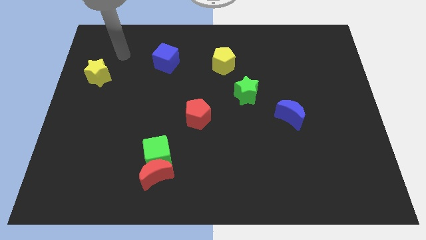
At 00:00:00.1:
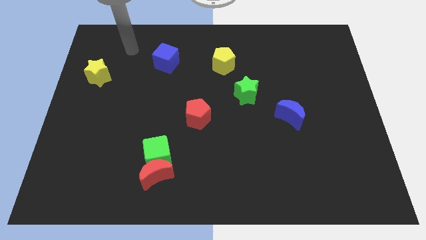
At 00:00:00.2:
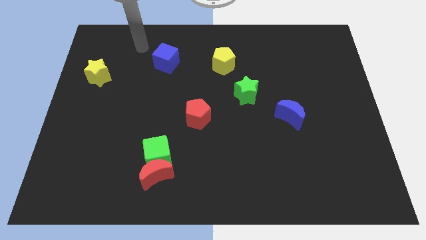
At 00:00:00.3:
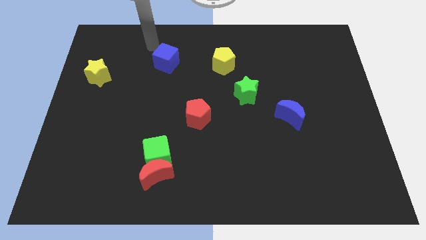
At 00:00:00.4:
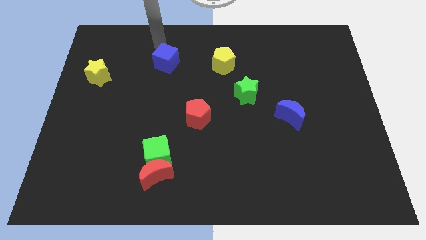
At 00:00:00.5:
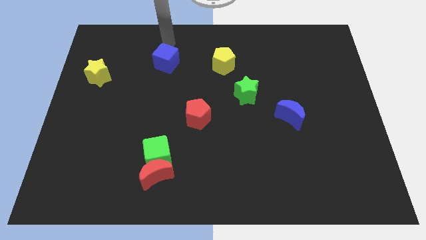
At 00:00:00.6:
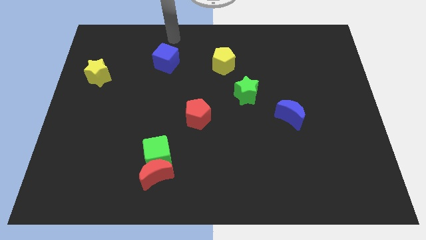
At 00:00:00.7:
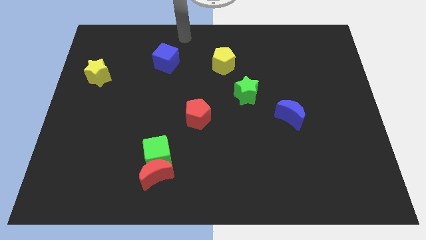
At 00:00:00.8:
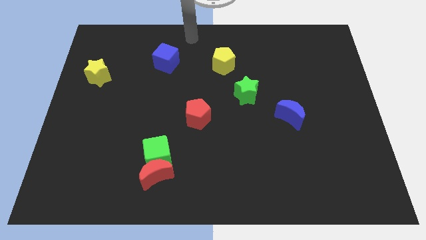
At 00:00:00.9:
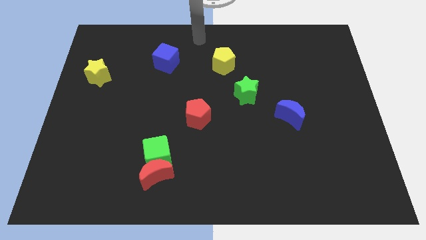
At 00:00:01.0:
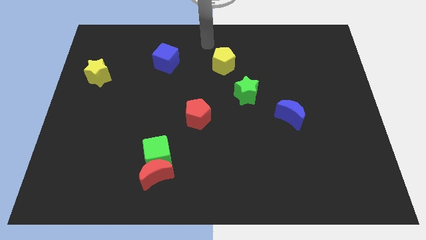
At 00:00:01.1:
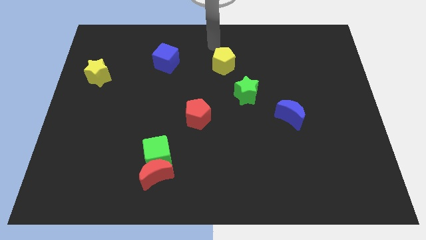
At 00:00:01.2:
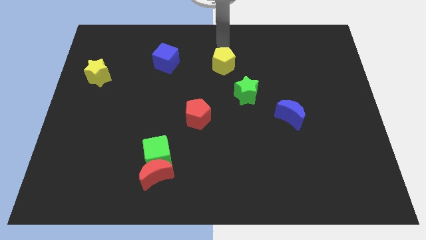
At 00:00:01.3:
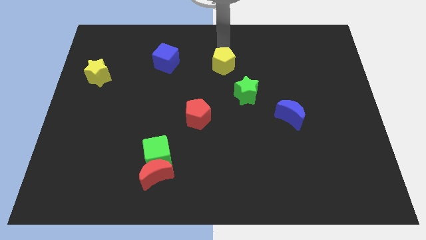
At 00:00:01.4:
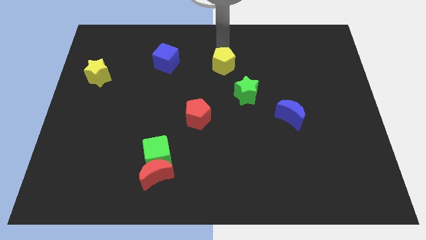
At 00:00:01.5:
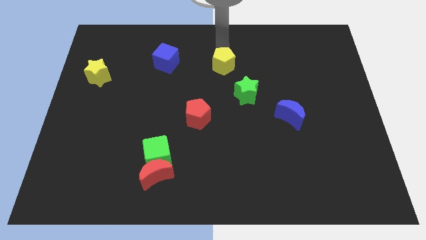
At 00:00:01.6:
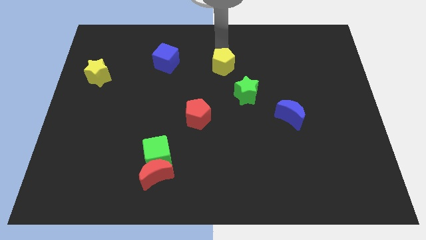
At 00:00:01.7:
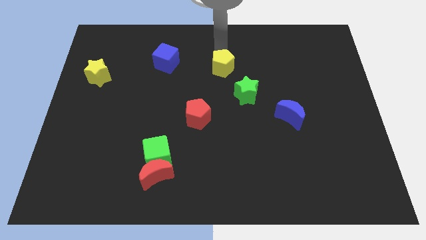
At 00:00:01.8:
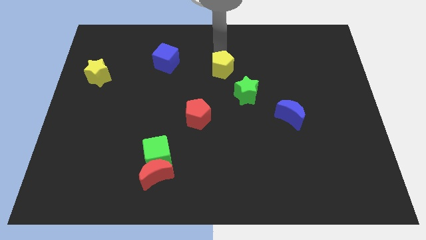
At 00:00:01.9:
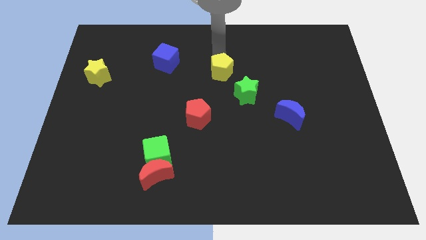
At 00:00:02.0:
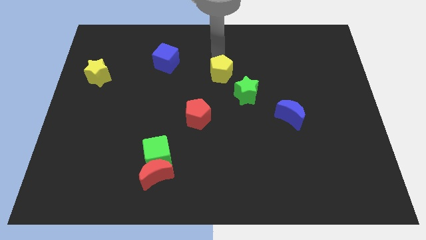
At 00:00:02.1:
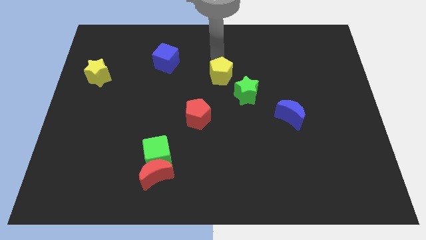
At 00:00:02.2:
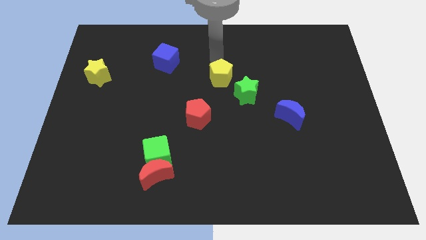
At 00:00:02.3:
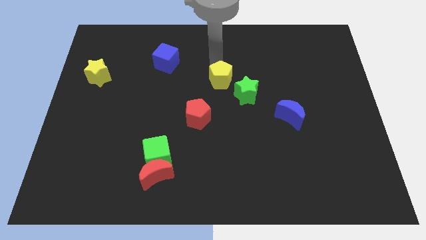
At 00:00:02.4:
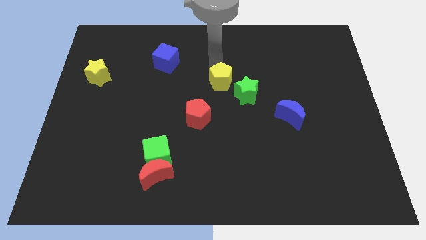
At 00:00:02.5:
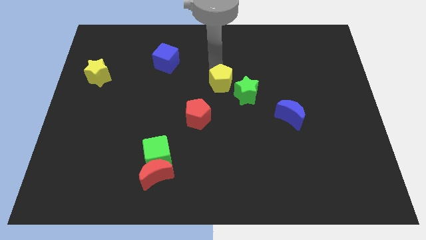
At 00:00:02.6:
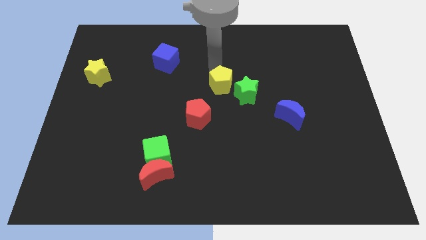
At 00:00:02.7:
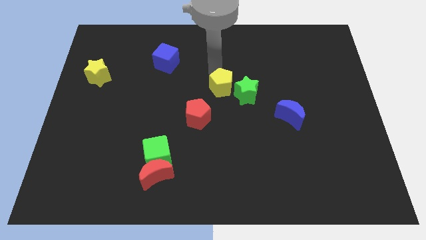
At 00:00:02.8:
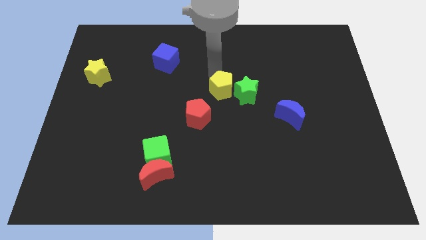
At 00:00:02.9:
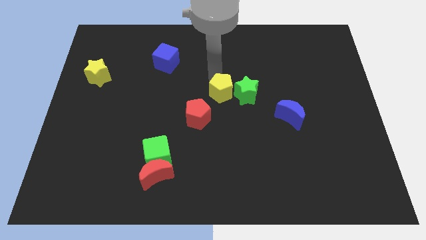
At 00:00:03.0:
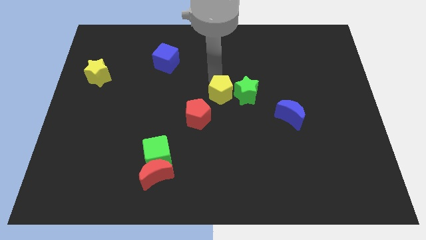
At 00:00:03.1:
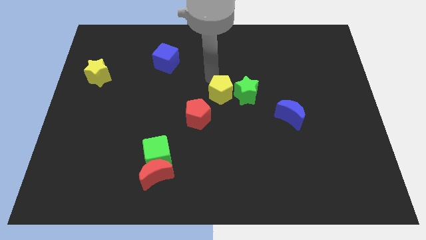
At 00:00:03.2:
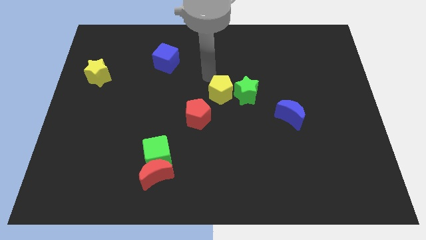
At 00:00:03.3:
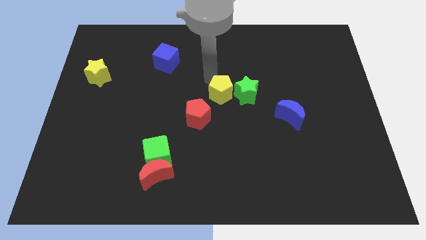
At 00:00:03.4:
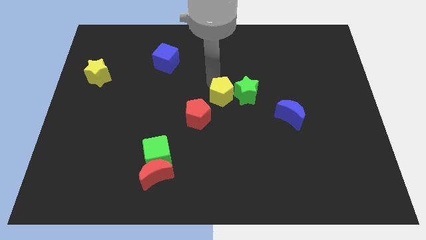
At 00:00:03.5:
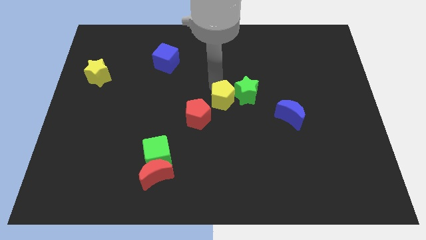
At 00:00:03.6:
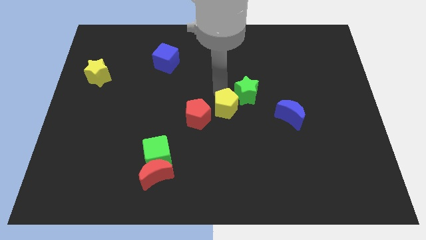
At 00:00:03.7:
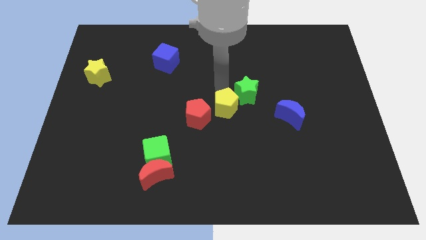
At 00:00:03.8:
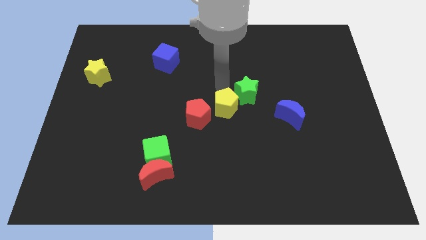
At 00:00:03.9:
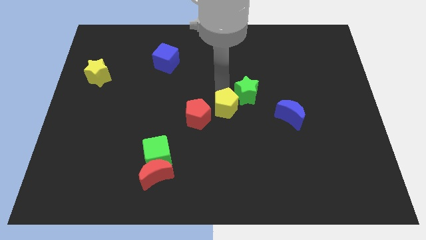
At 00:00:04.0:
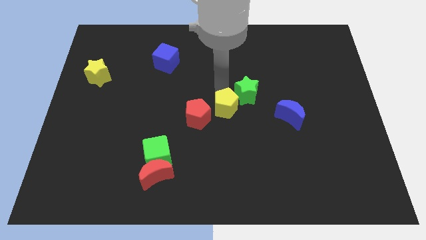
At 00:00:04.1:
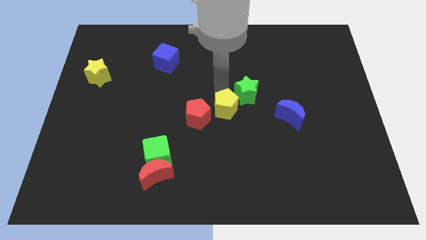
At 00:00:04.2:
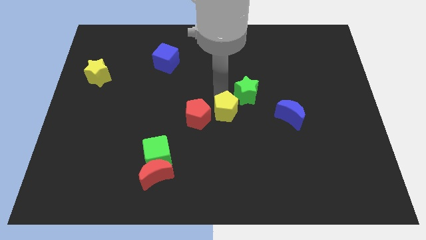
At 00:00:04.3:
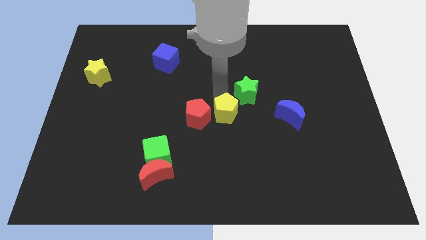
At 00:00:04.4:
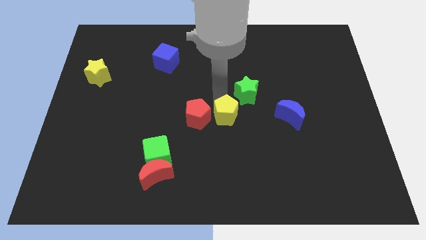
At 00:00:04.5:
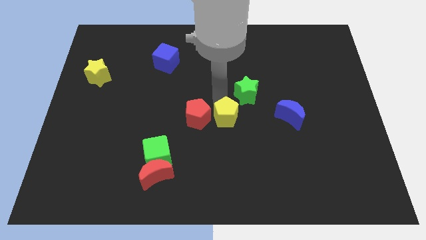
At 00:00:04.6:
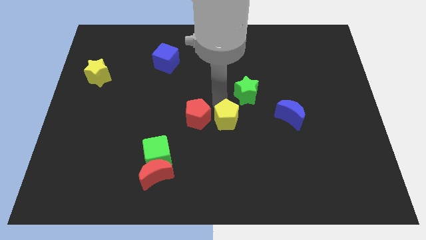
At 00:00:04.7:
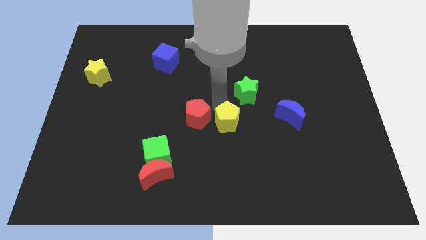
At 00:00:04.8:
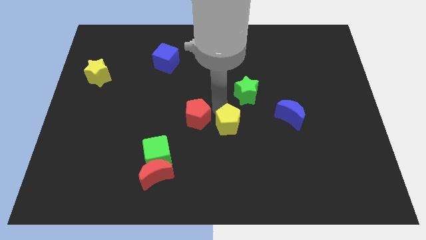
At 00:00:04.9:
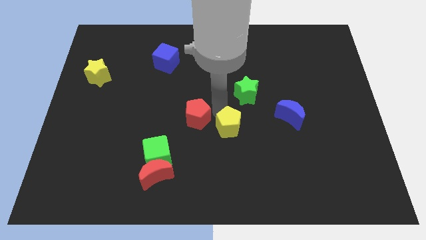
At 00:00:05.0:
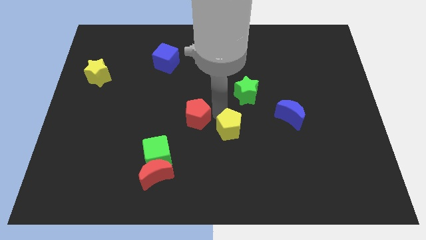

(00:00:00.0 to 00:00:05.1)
move the yellow pentagon down

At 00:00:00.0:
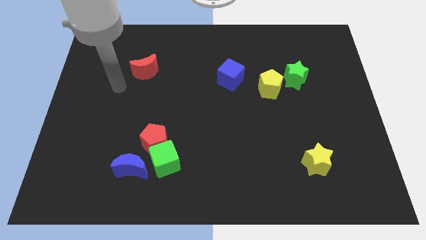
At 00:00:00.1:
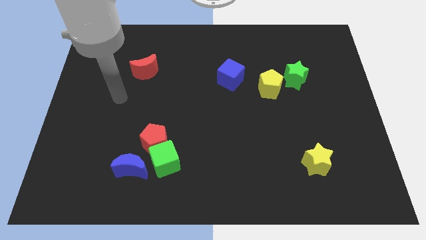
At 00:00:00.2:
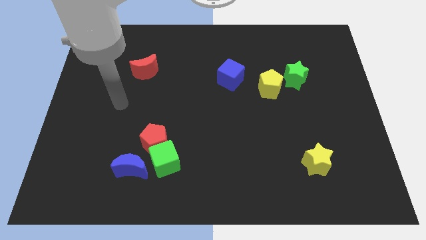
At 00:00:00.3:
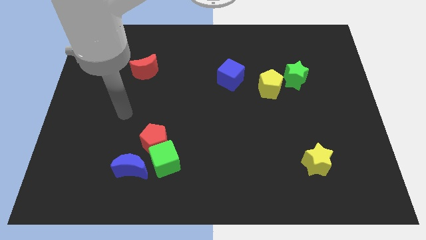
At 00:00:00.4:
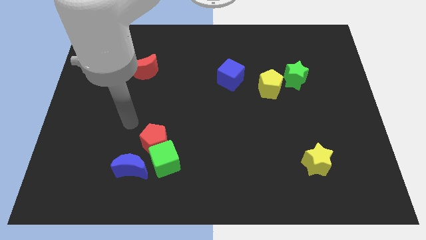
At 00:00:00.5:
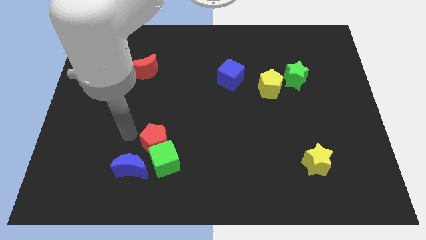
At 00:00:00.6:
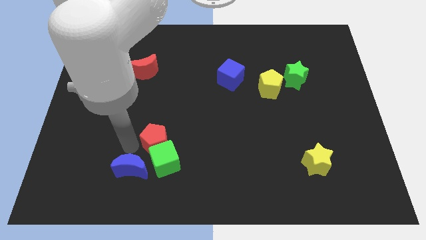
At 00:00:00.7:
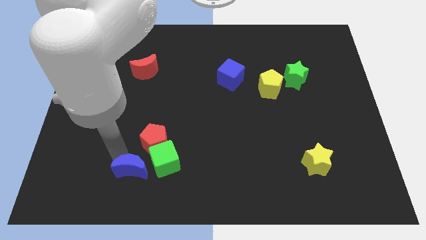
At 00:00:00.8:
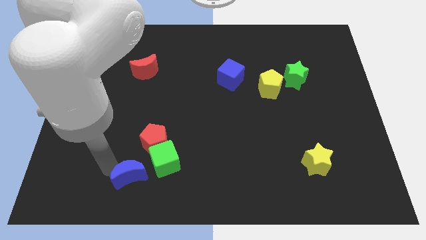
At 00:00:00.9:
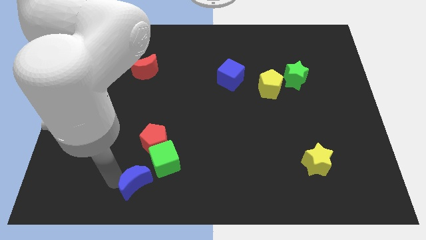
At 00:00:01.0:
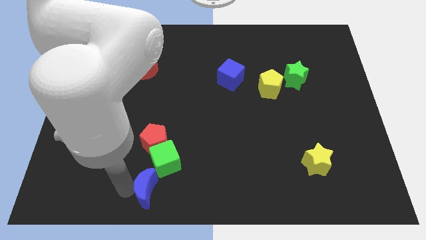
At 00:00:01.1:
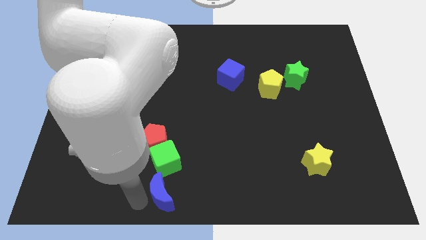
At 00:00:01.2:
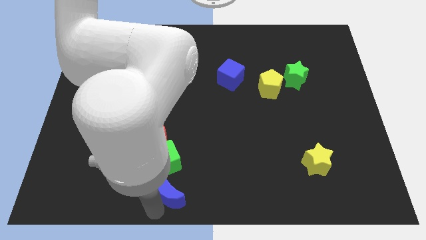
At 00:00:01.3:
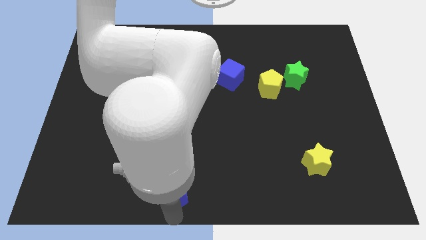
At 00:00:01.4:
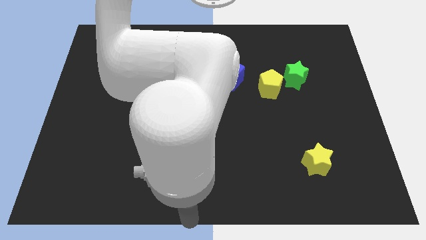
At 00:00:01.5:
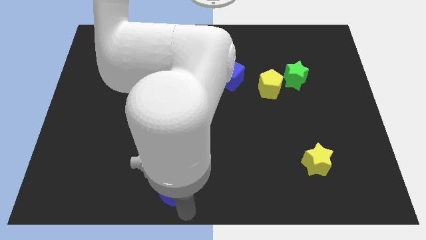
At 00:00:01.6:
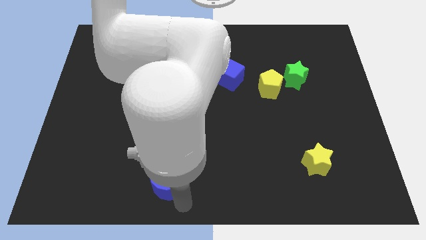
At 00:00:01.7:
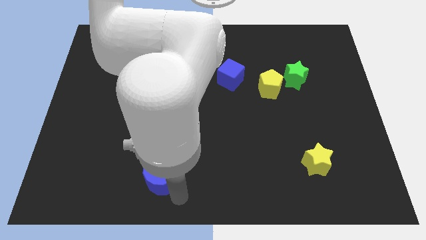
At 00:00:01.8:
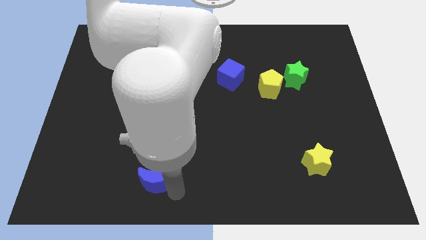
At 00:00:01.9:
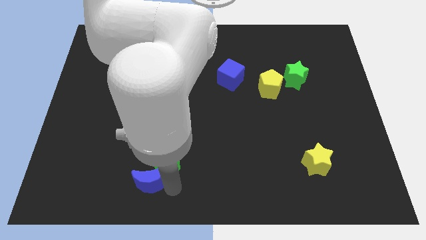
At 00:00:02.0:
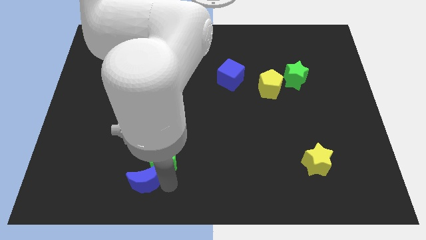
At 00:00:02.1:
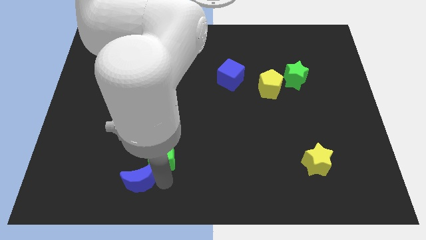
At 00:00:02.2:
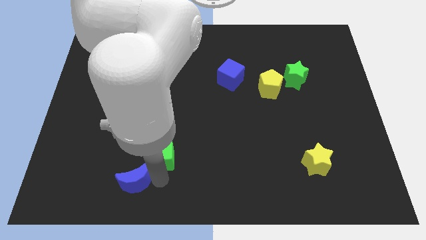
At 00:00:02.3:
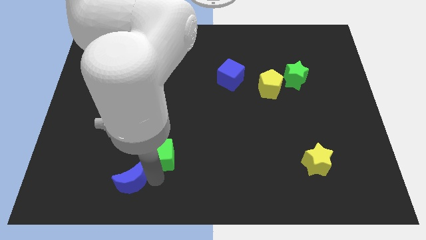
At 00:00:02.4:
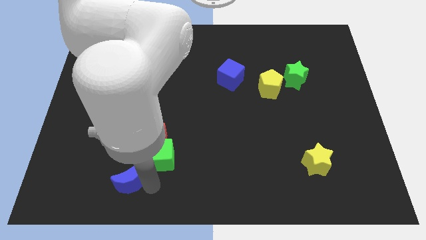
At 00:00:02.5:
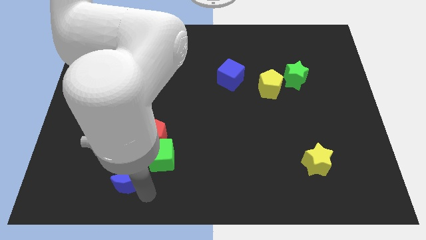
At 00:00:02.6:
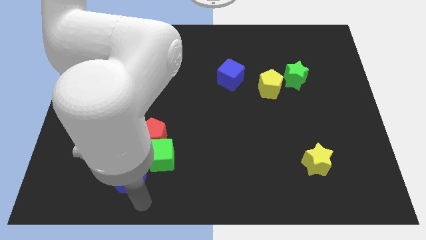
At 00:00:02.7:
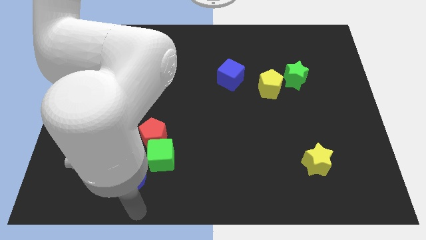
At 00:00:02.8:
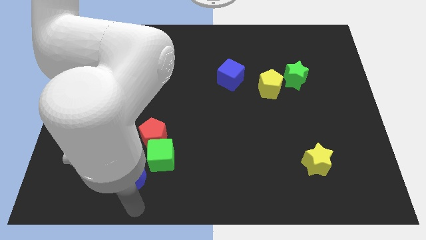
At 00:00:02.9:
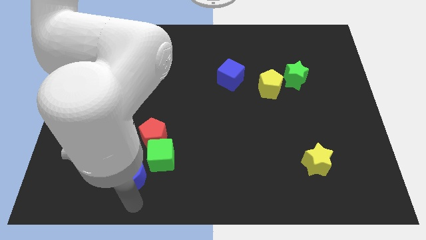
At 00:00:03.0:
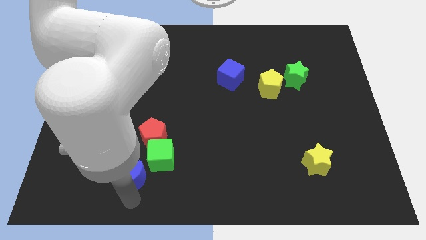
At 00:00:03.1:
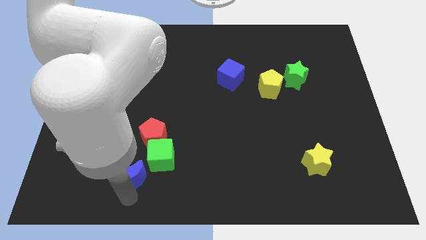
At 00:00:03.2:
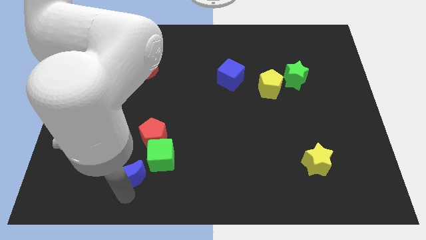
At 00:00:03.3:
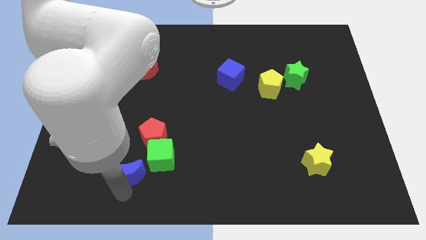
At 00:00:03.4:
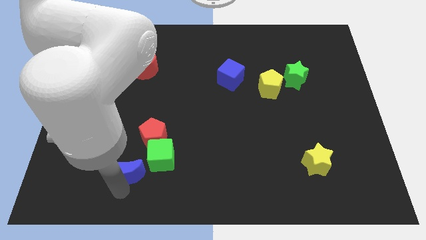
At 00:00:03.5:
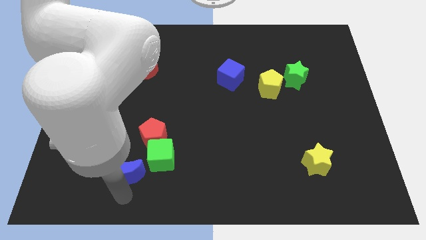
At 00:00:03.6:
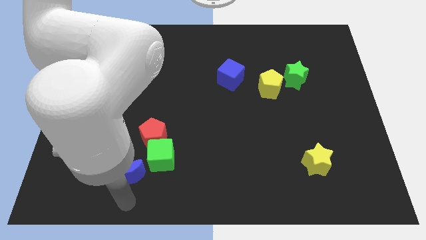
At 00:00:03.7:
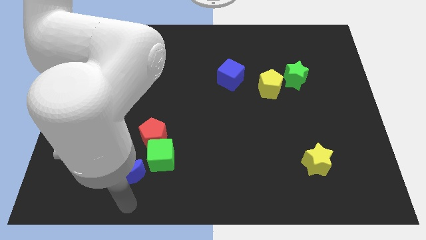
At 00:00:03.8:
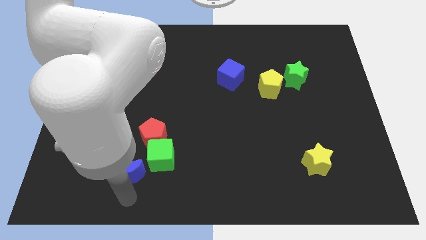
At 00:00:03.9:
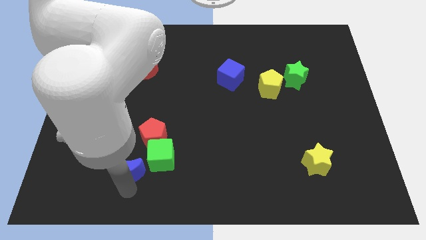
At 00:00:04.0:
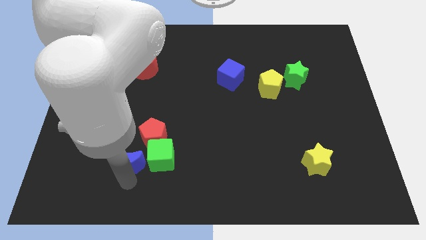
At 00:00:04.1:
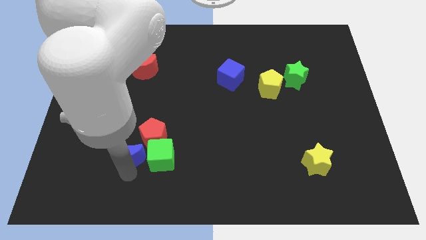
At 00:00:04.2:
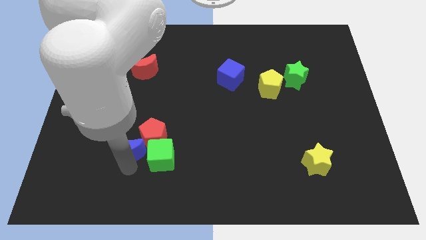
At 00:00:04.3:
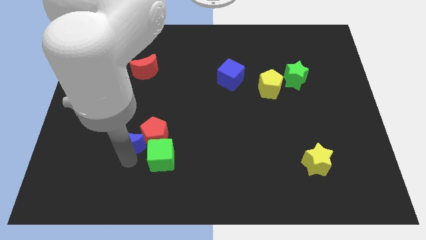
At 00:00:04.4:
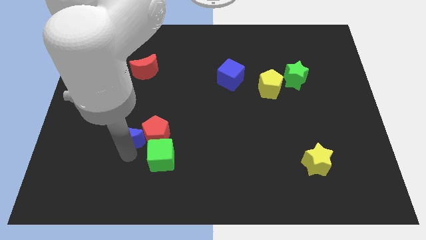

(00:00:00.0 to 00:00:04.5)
move the blue moon up somewhat
